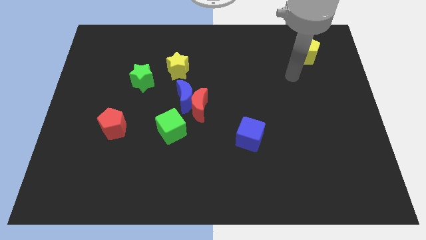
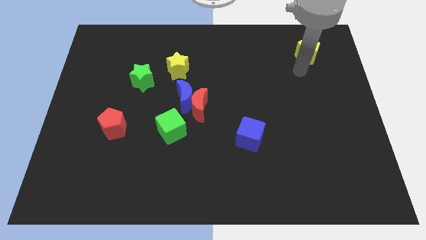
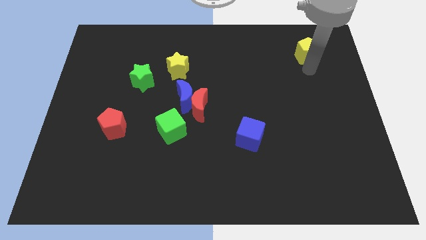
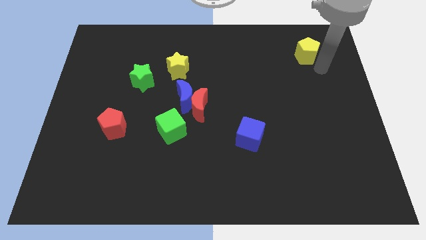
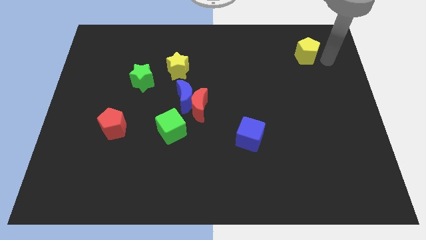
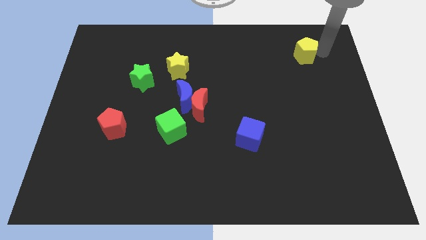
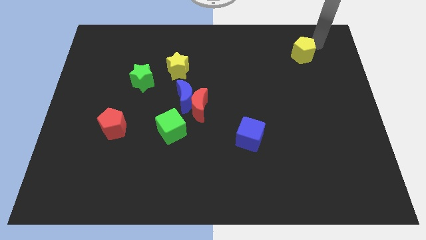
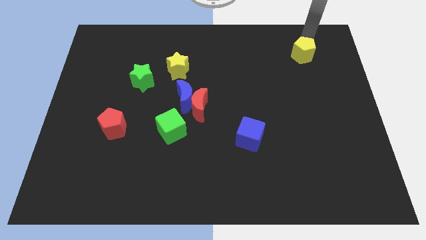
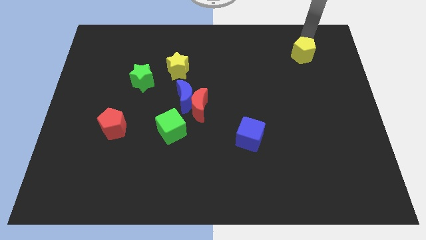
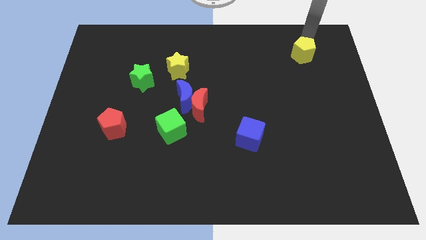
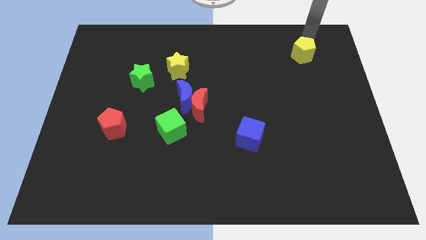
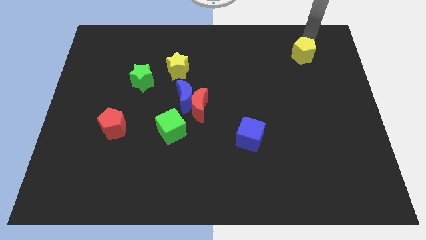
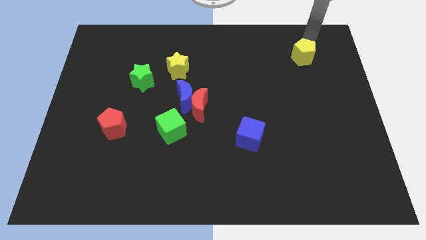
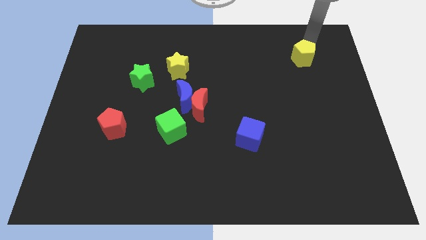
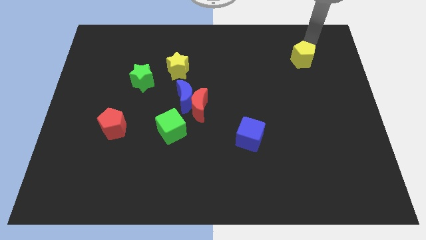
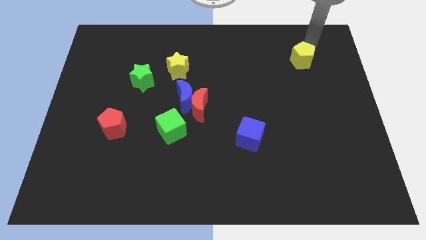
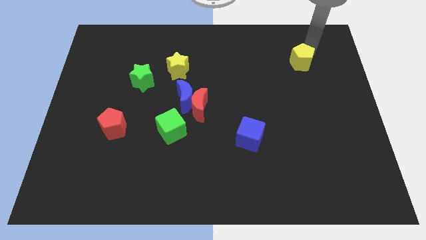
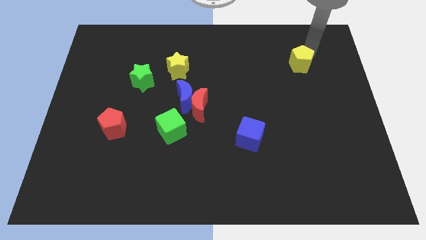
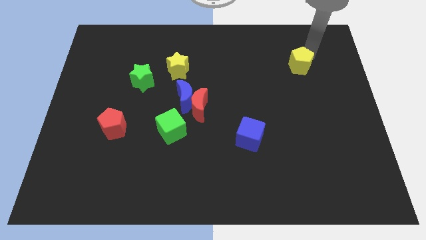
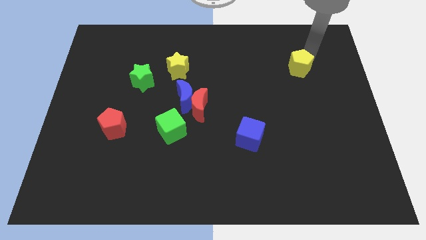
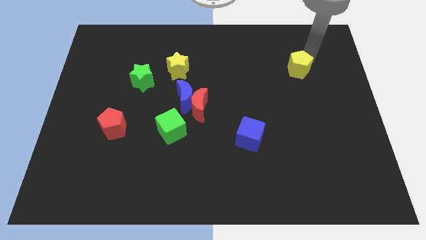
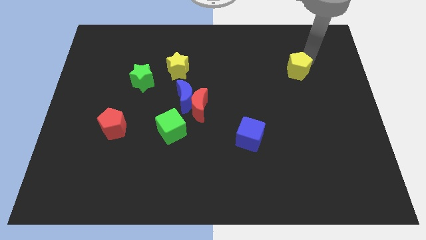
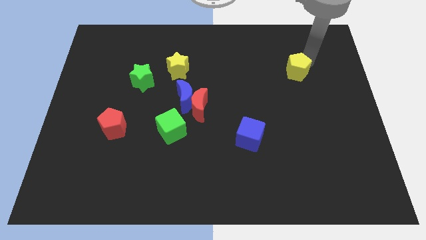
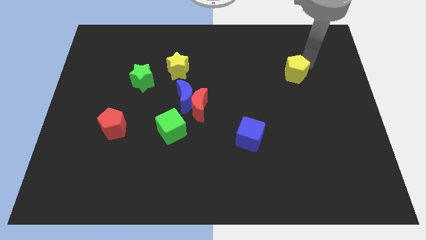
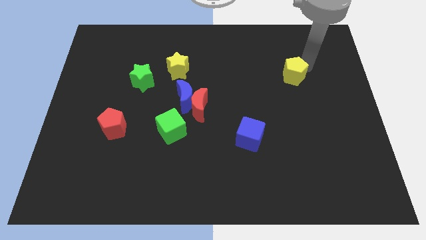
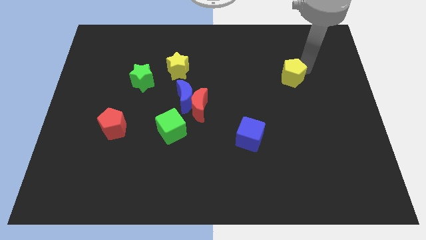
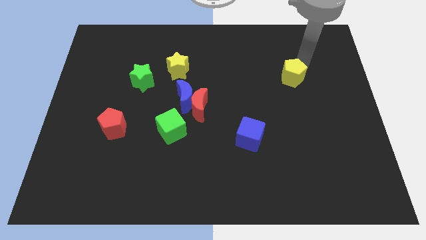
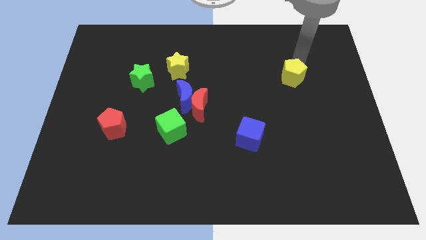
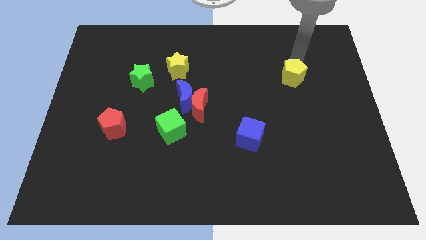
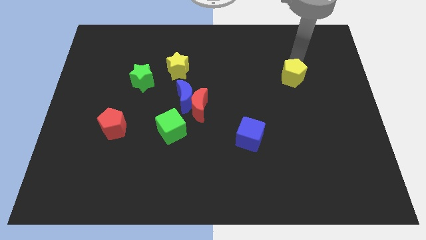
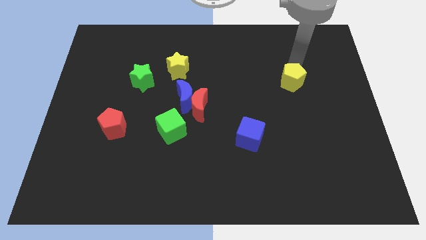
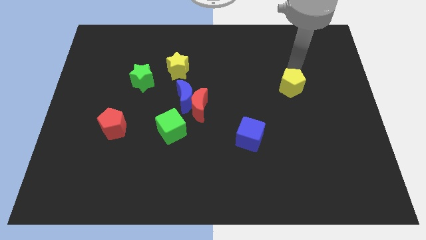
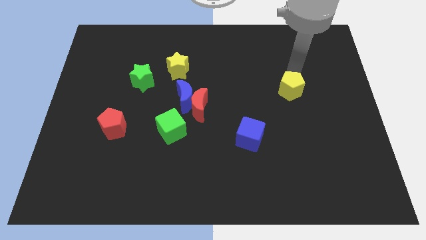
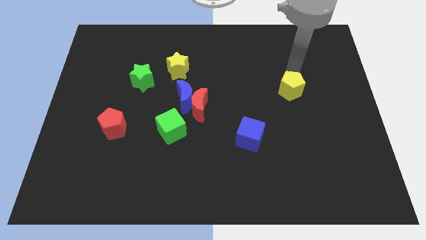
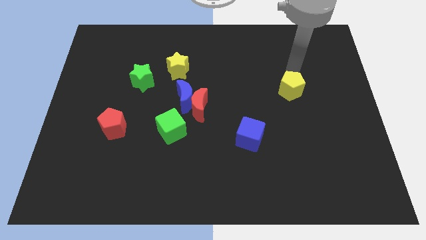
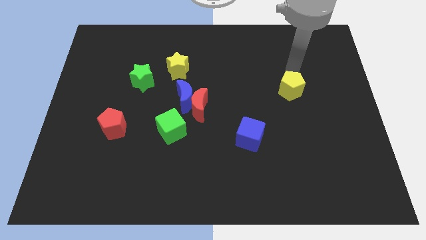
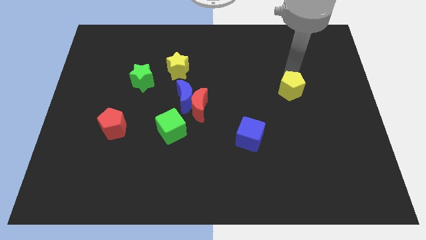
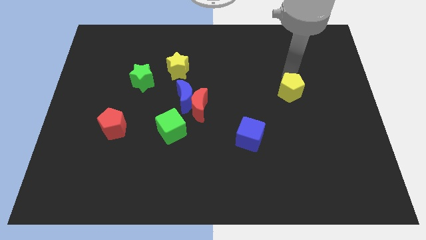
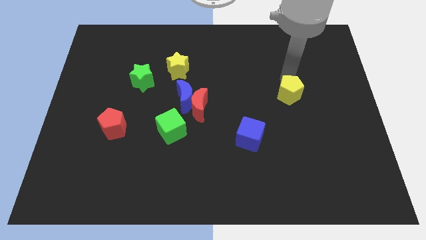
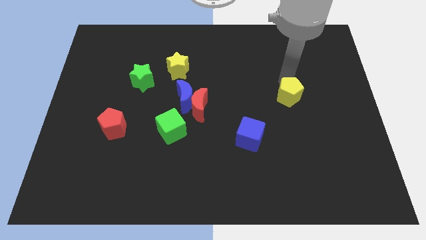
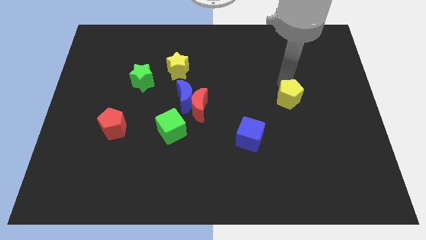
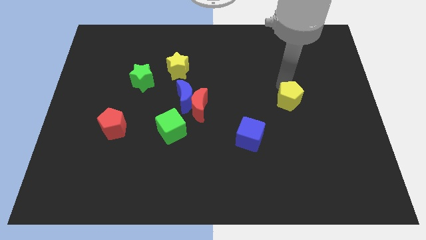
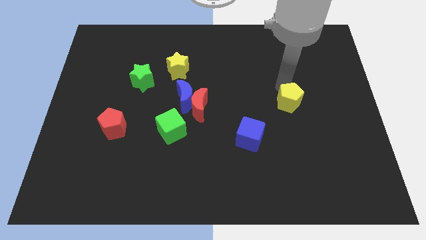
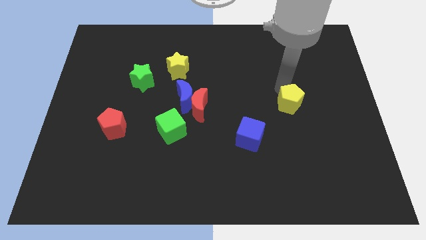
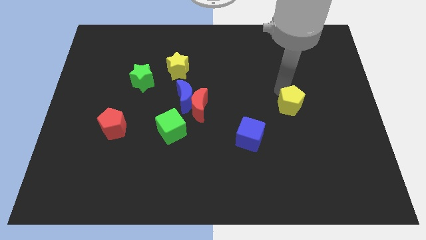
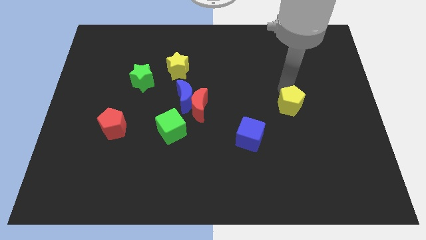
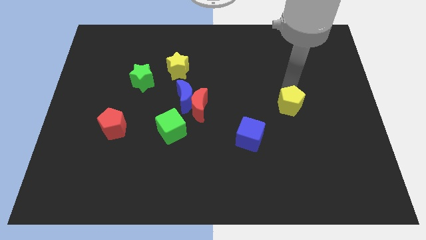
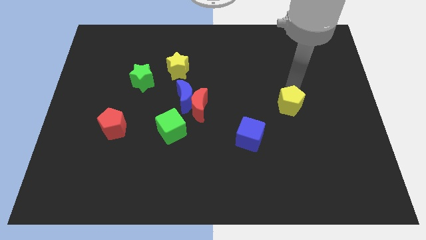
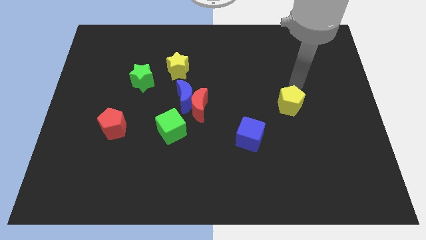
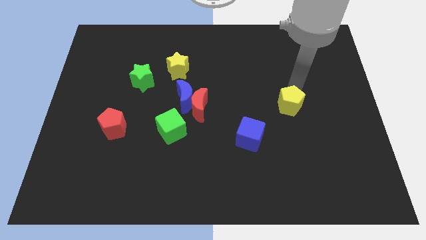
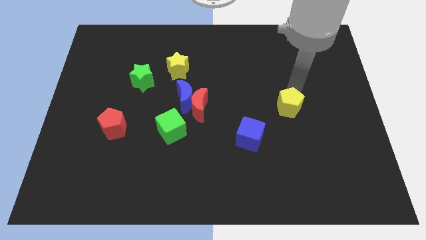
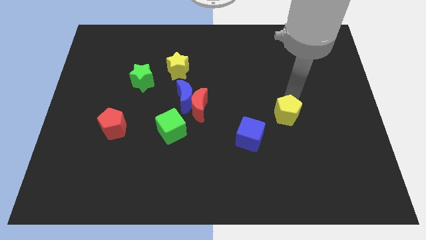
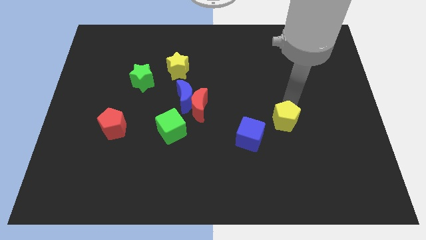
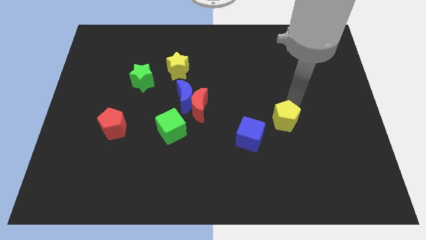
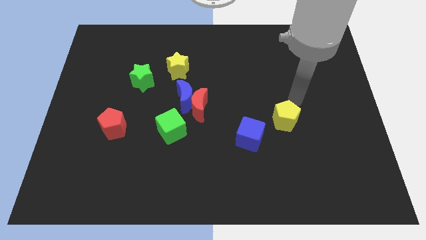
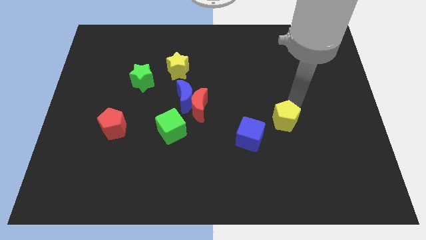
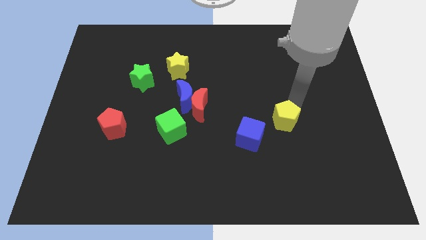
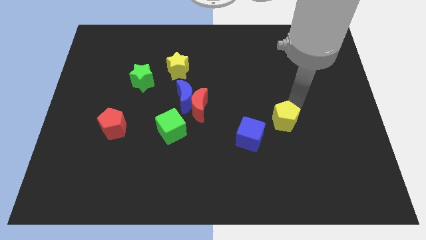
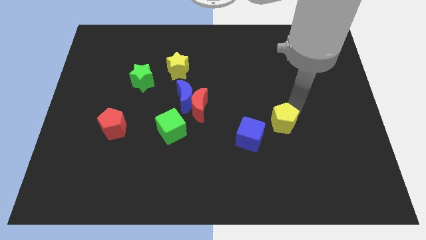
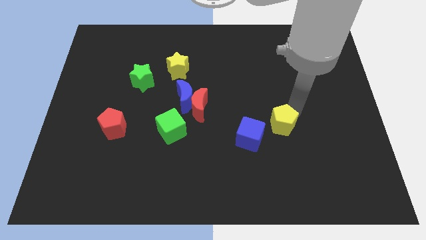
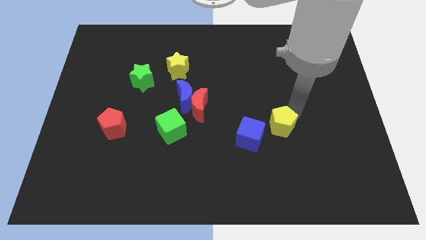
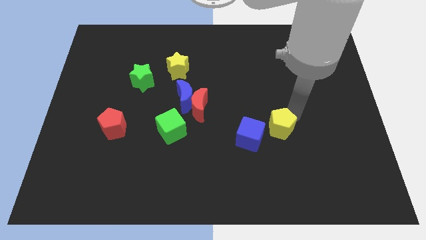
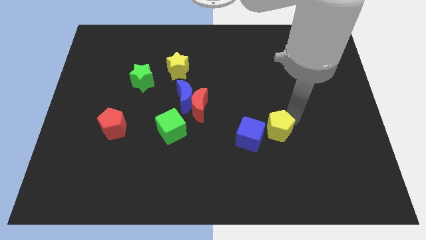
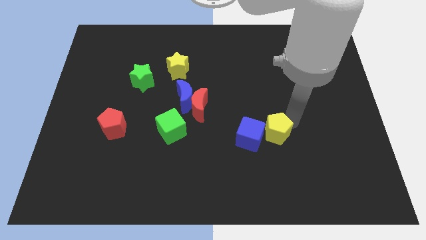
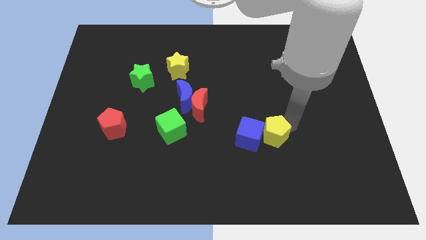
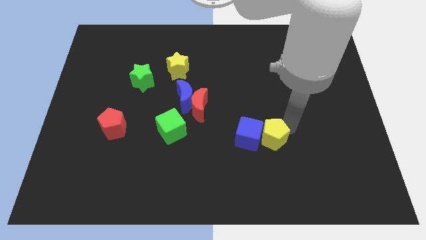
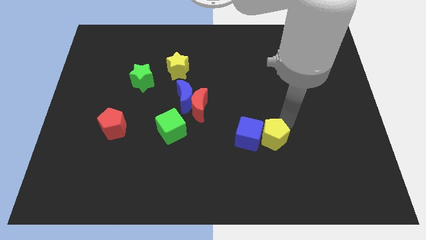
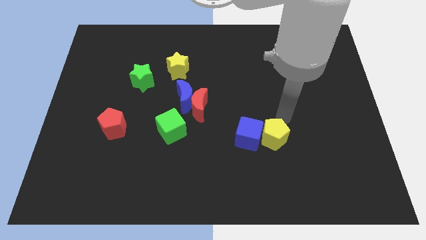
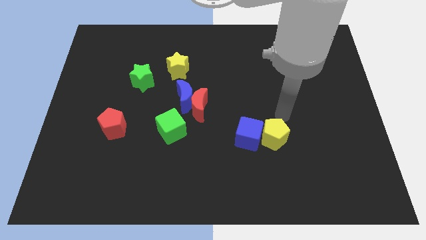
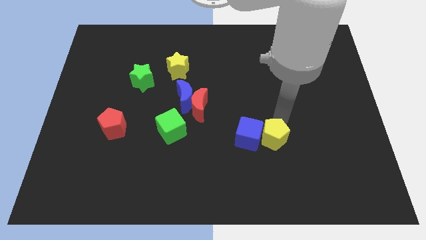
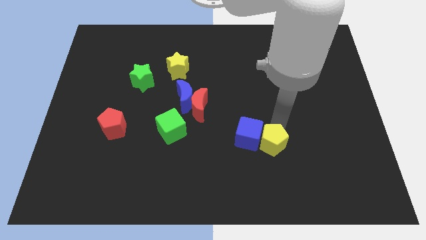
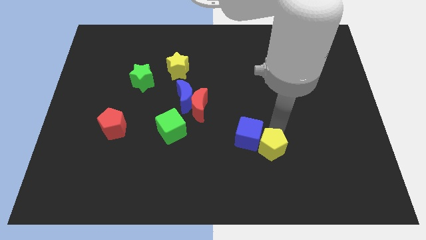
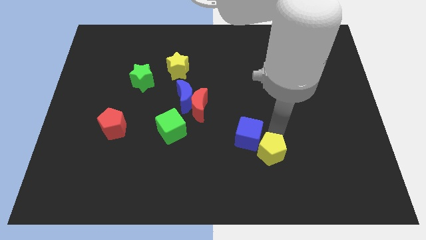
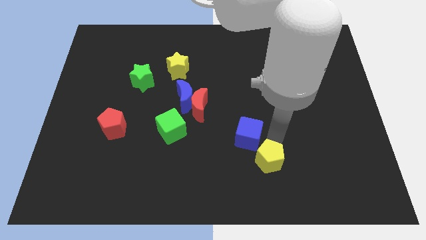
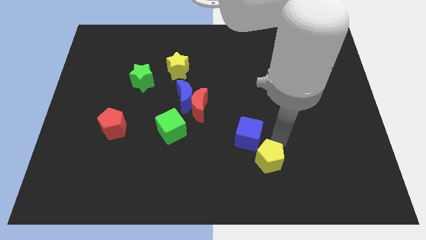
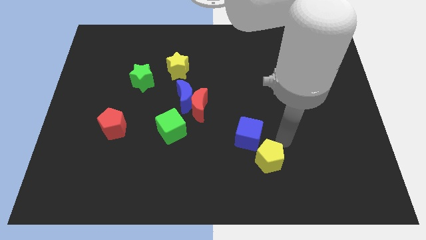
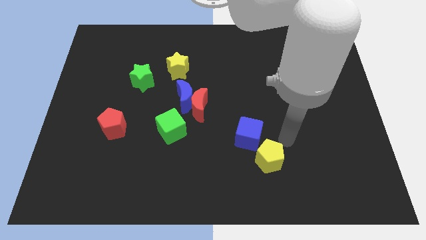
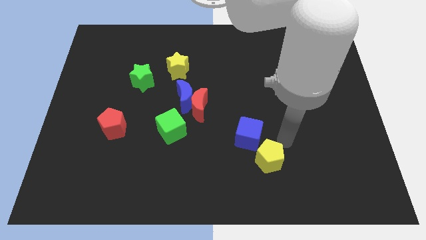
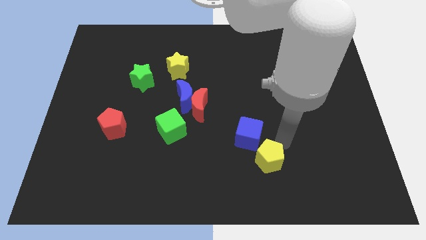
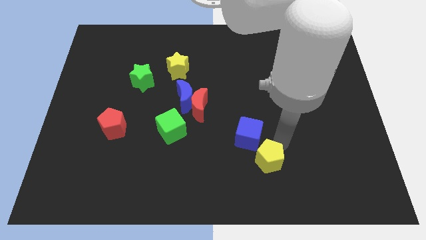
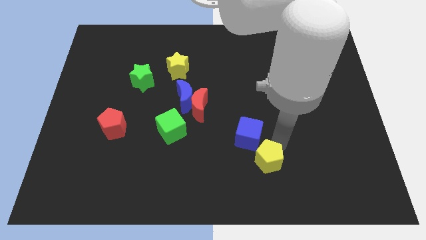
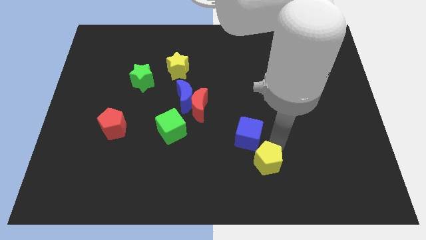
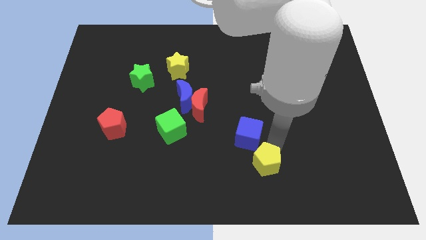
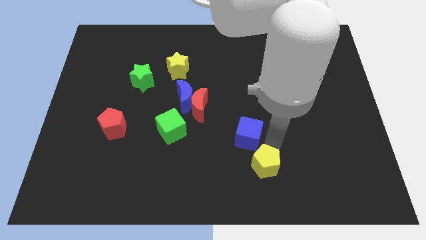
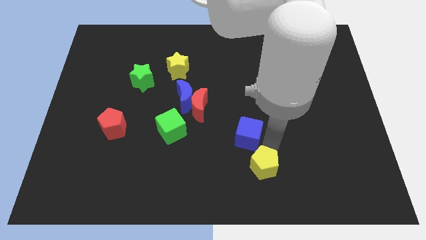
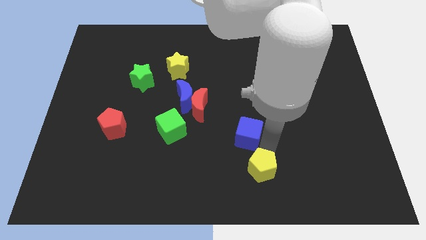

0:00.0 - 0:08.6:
slide the yellow pentagon to the bottom
